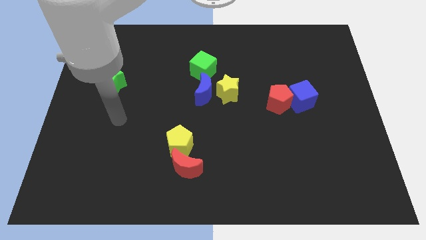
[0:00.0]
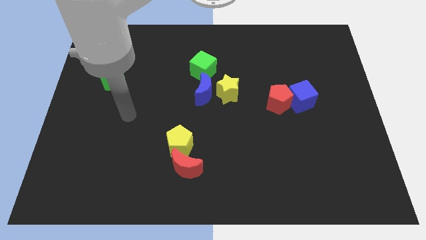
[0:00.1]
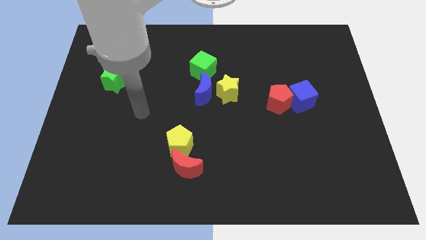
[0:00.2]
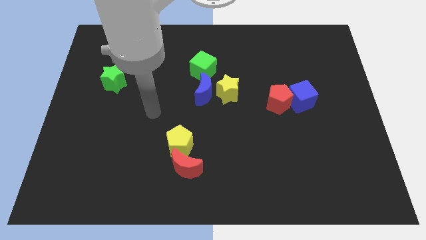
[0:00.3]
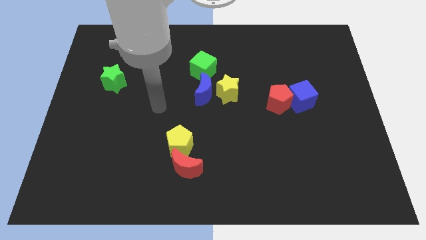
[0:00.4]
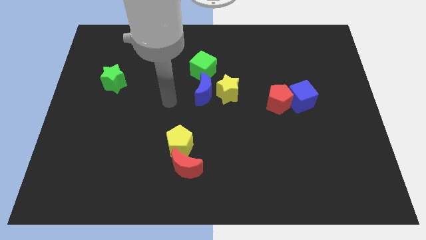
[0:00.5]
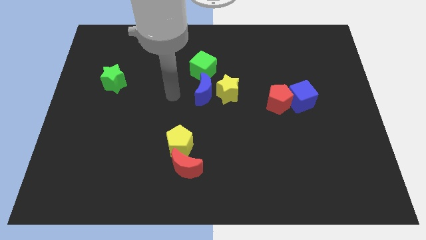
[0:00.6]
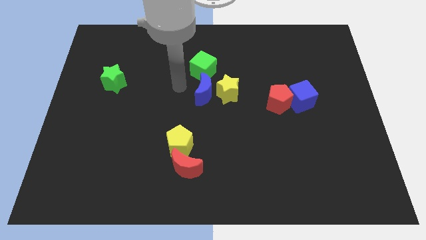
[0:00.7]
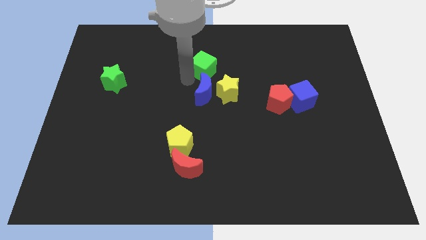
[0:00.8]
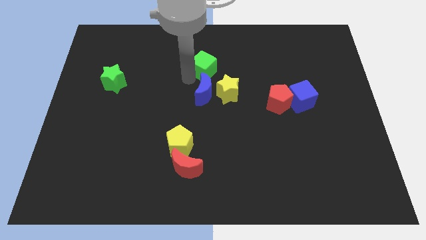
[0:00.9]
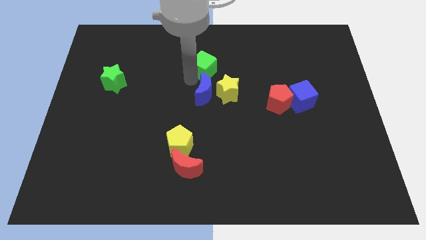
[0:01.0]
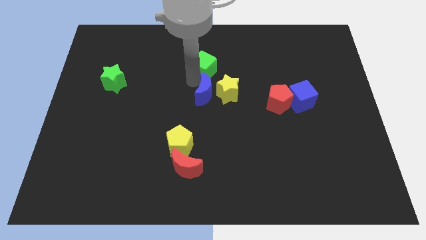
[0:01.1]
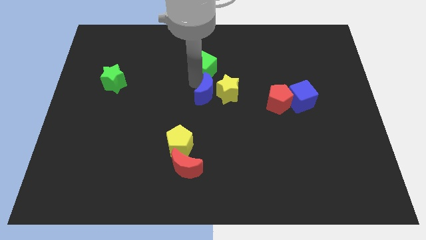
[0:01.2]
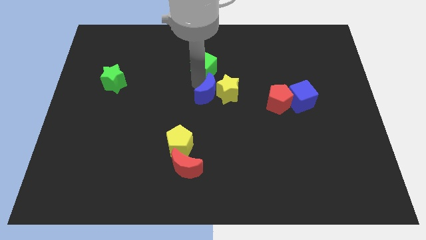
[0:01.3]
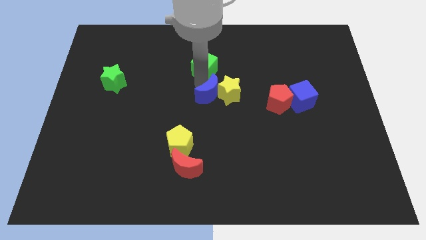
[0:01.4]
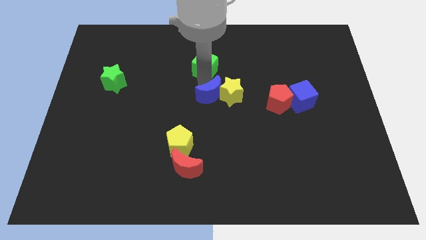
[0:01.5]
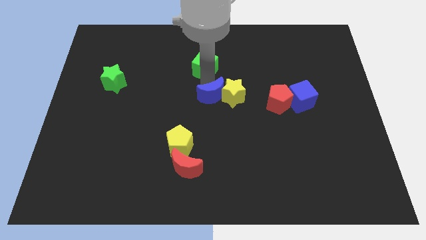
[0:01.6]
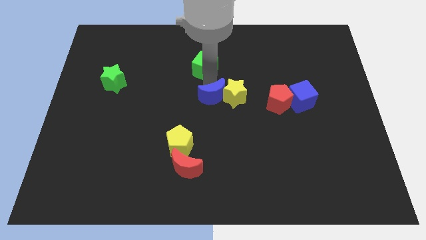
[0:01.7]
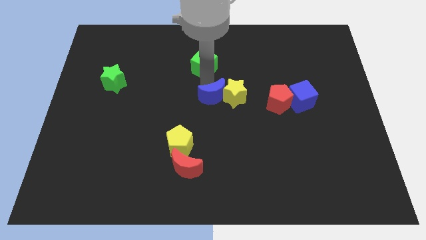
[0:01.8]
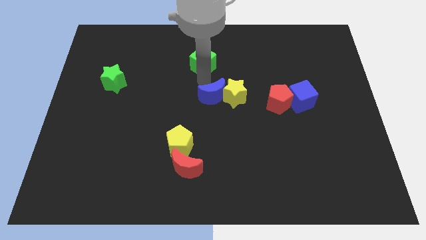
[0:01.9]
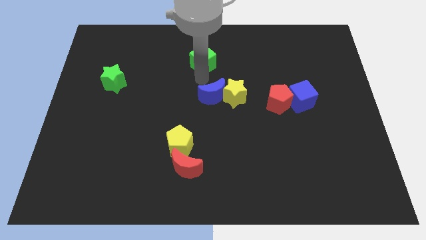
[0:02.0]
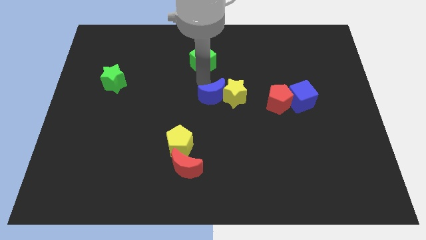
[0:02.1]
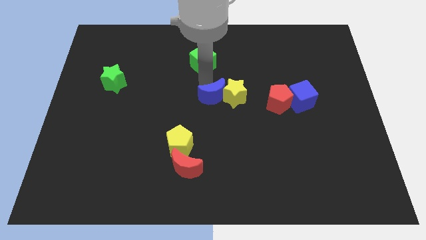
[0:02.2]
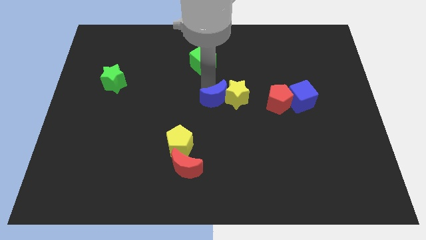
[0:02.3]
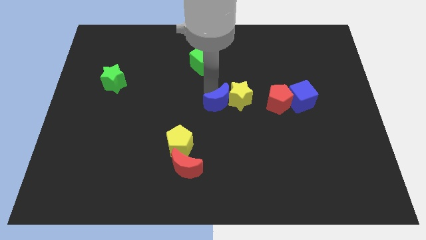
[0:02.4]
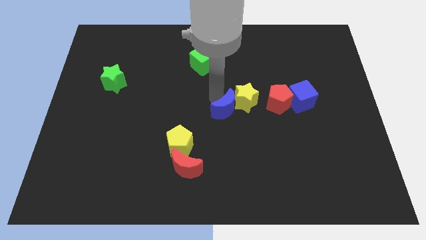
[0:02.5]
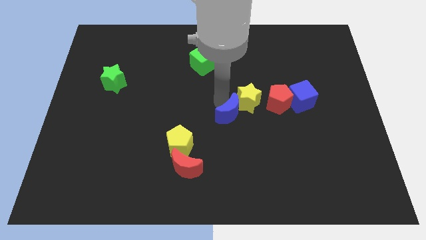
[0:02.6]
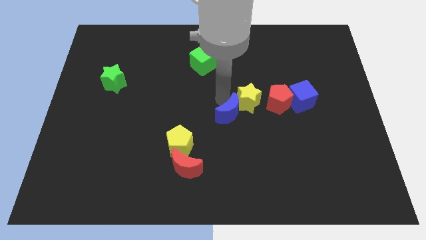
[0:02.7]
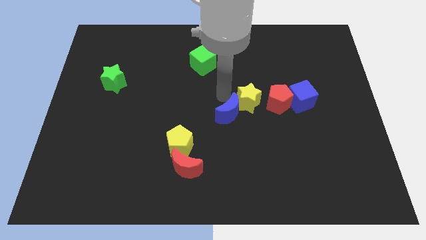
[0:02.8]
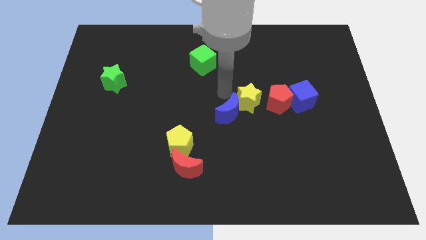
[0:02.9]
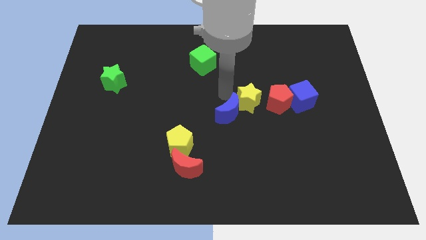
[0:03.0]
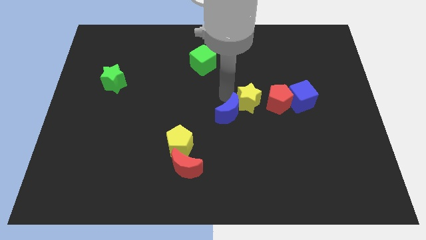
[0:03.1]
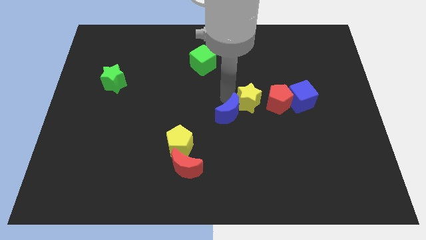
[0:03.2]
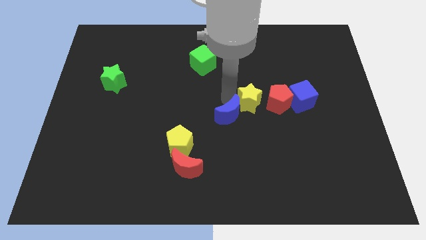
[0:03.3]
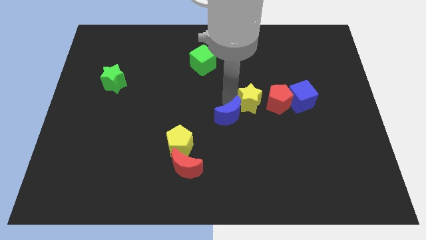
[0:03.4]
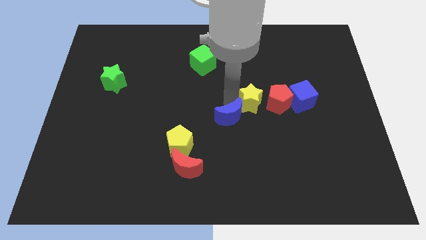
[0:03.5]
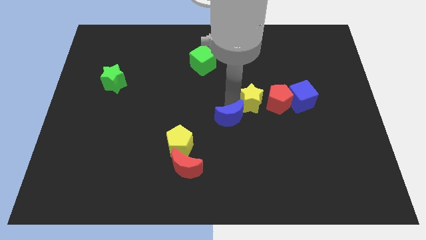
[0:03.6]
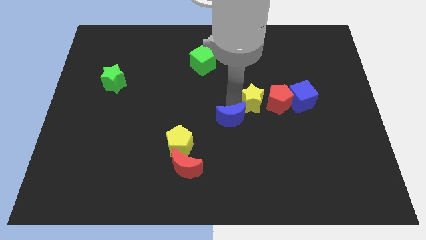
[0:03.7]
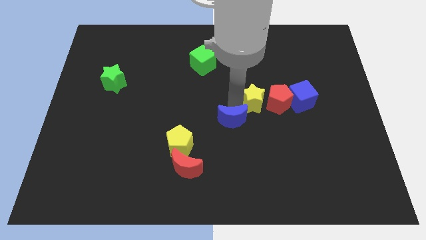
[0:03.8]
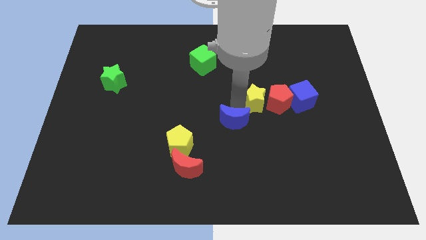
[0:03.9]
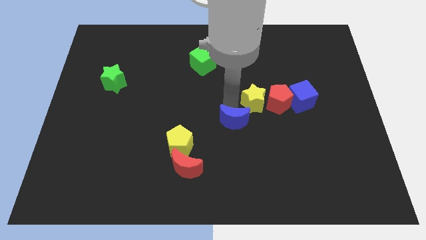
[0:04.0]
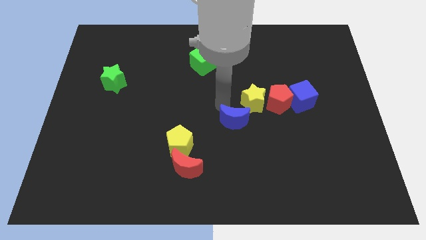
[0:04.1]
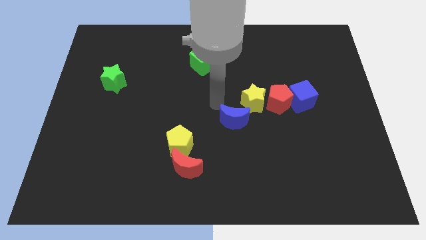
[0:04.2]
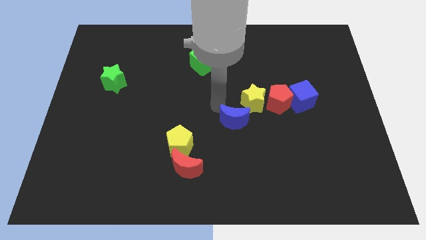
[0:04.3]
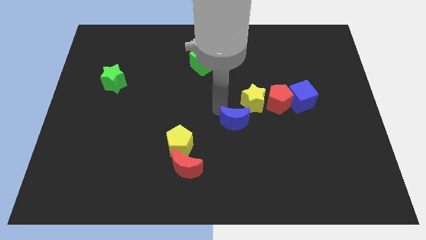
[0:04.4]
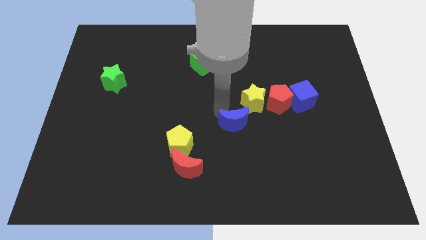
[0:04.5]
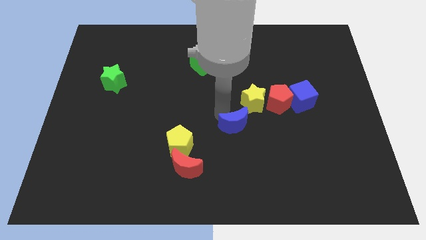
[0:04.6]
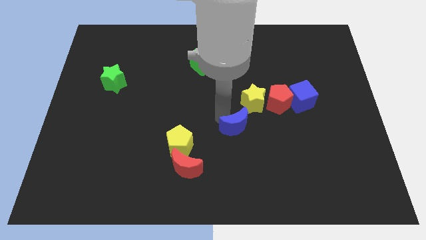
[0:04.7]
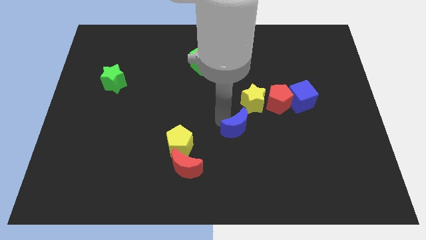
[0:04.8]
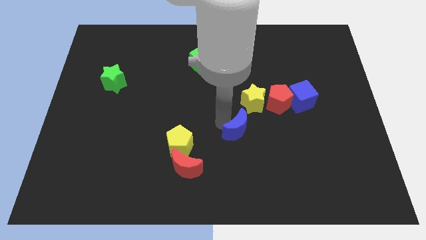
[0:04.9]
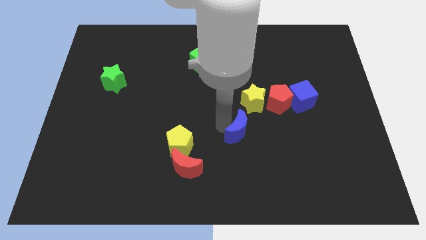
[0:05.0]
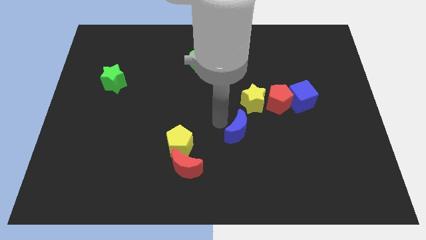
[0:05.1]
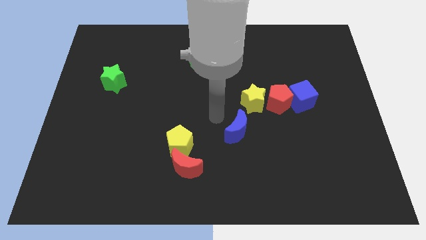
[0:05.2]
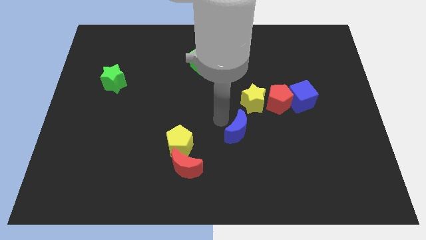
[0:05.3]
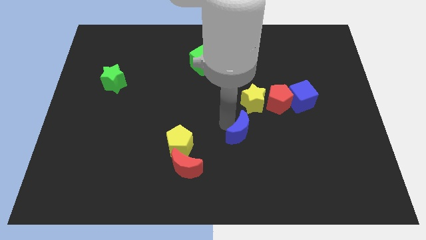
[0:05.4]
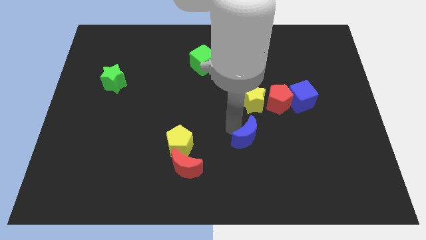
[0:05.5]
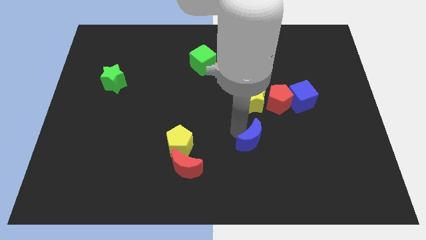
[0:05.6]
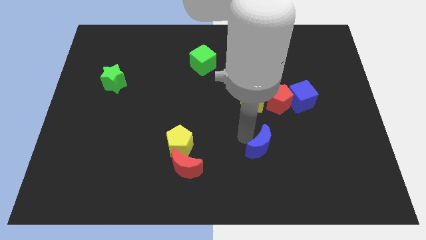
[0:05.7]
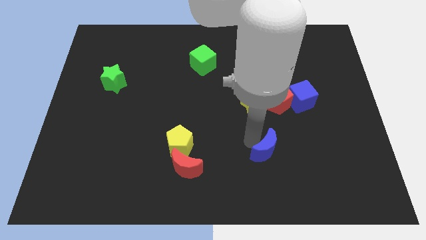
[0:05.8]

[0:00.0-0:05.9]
slide the blue moon down and to the right diagonally

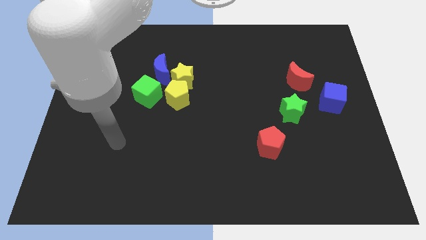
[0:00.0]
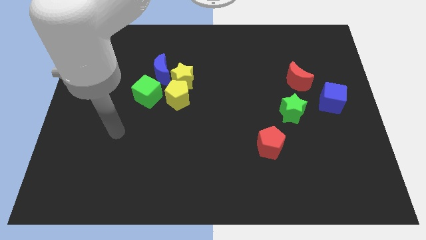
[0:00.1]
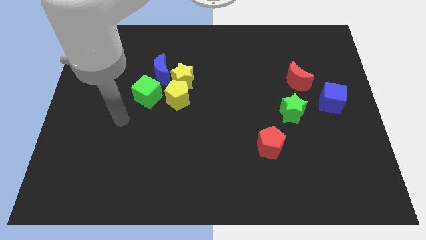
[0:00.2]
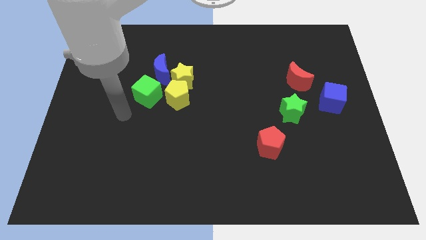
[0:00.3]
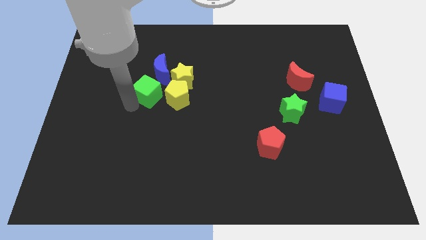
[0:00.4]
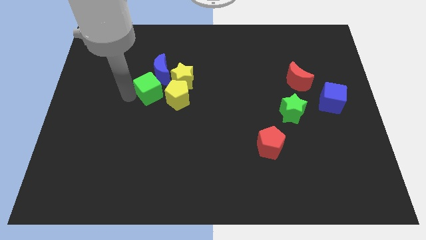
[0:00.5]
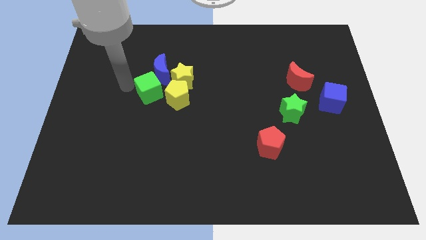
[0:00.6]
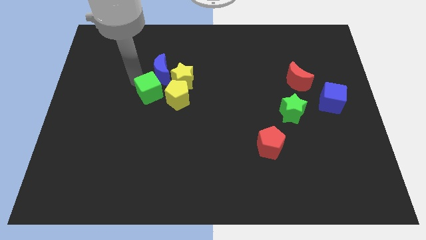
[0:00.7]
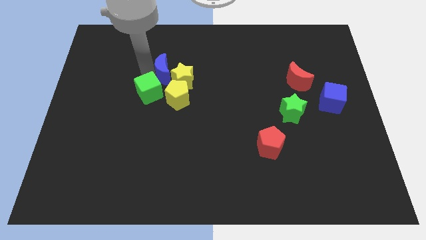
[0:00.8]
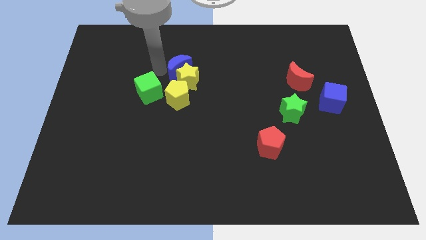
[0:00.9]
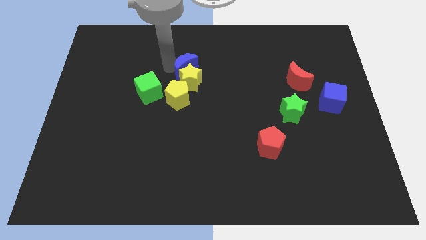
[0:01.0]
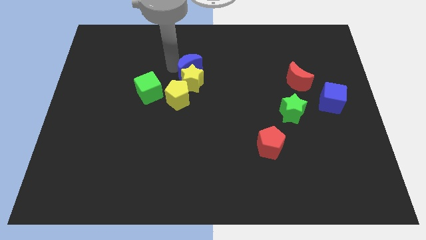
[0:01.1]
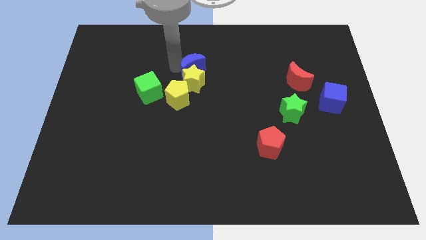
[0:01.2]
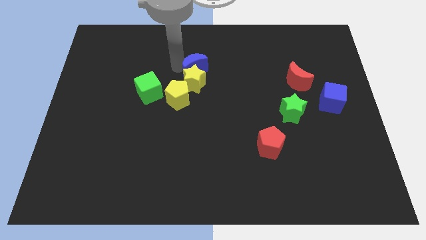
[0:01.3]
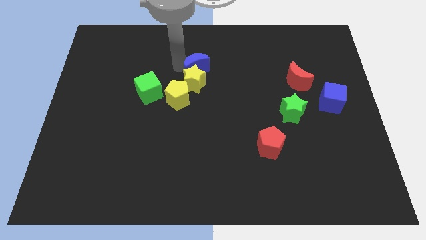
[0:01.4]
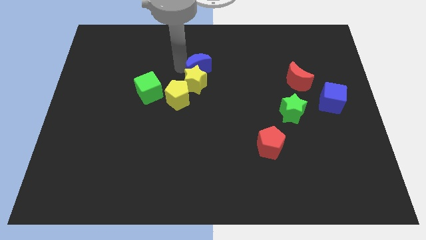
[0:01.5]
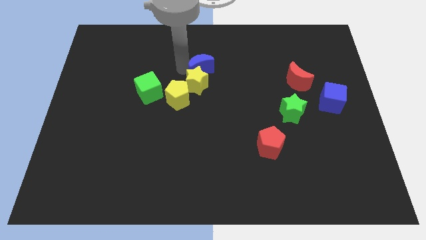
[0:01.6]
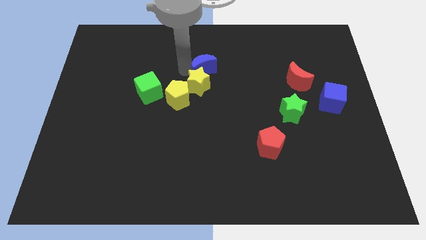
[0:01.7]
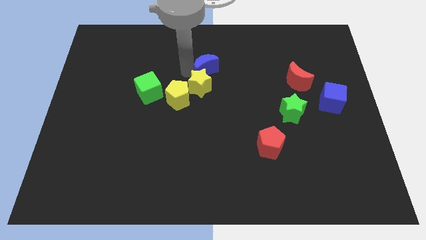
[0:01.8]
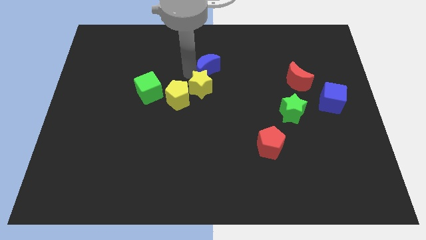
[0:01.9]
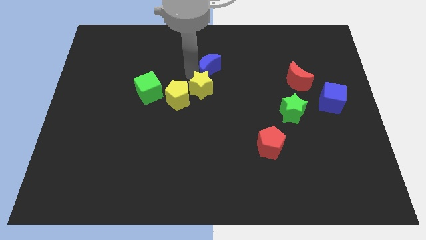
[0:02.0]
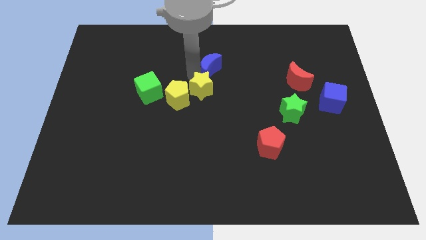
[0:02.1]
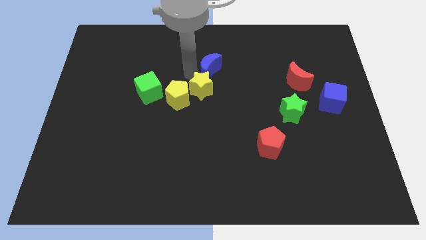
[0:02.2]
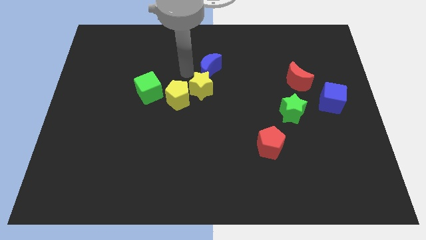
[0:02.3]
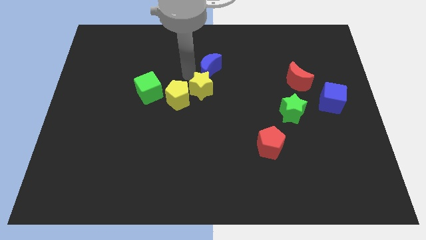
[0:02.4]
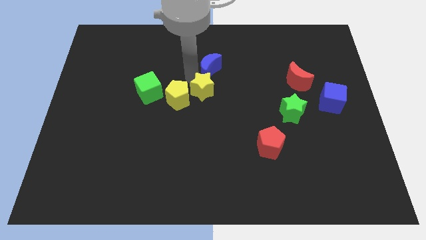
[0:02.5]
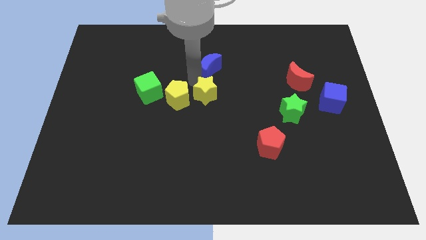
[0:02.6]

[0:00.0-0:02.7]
slightly push the yellow star diagonally downwards and to the right
